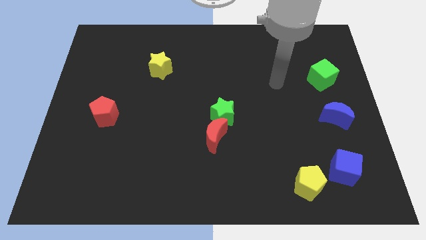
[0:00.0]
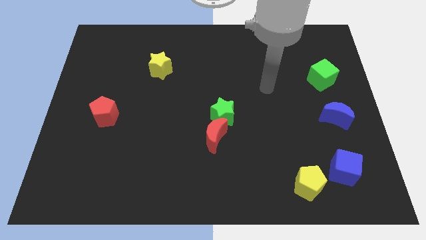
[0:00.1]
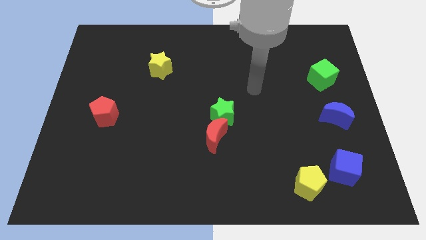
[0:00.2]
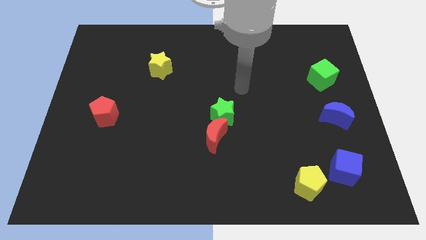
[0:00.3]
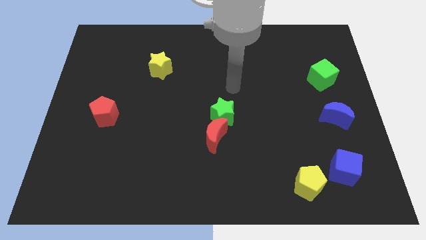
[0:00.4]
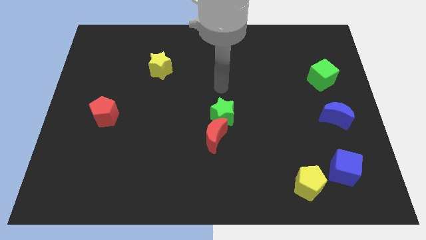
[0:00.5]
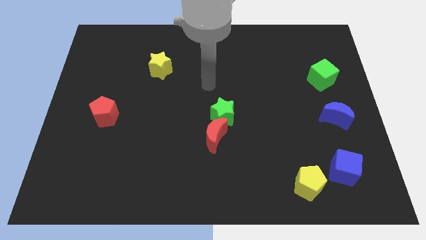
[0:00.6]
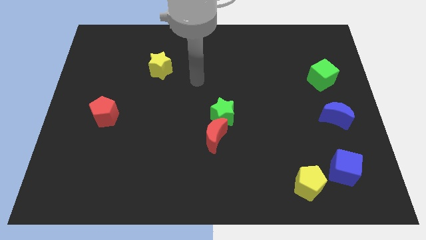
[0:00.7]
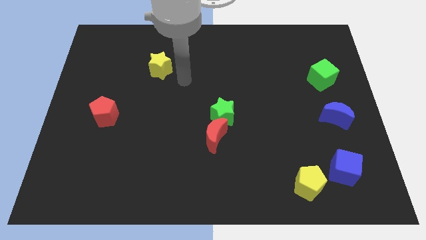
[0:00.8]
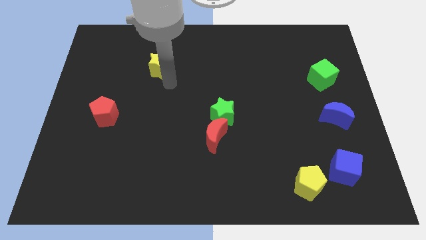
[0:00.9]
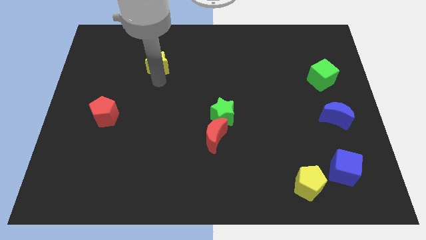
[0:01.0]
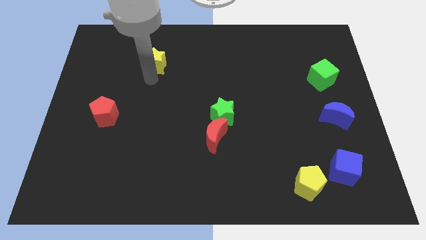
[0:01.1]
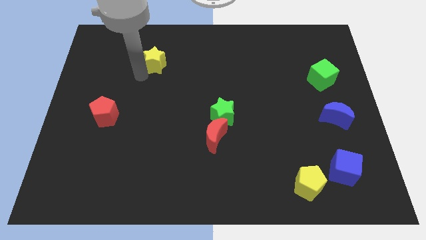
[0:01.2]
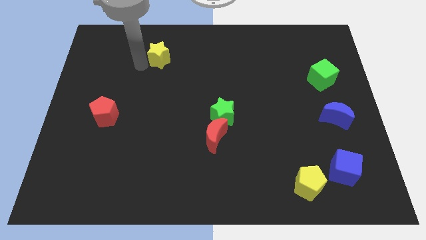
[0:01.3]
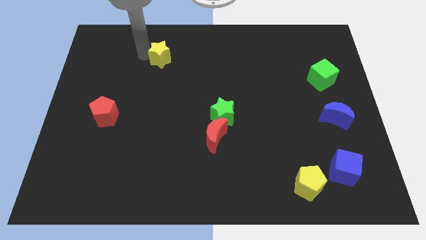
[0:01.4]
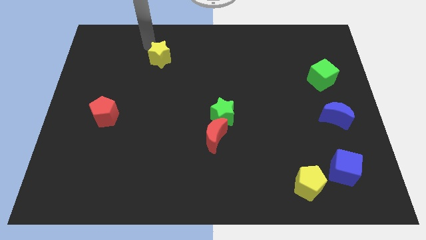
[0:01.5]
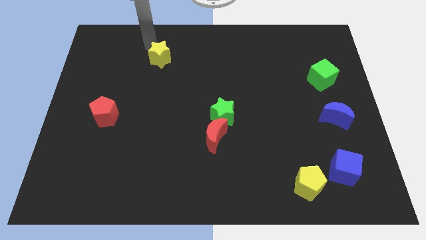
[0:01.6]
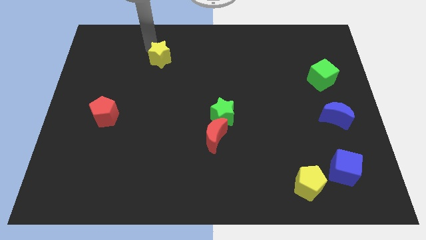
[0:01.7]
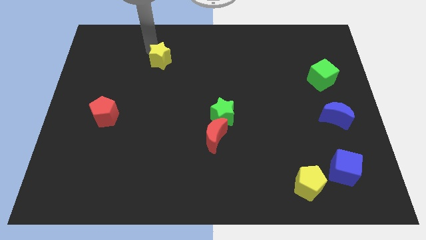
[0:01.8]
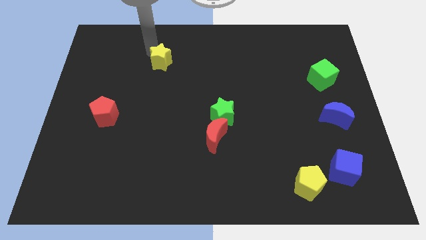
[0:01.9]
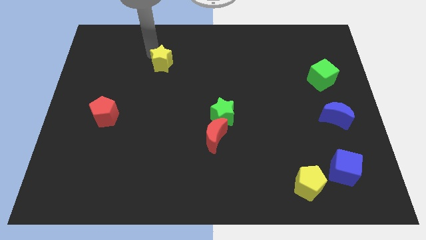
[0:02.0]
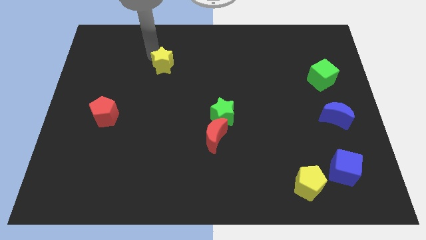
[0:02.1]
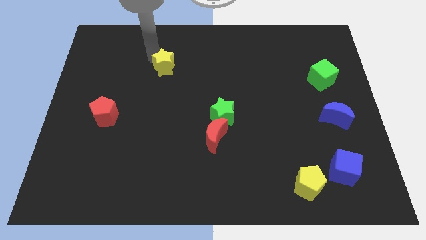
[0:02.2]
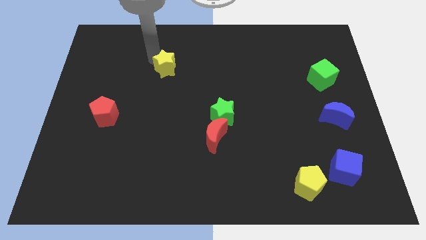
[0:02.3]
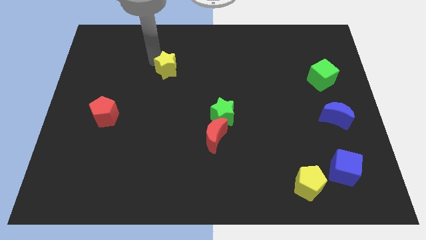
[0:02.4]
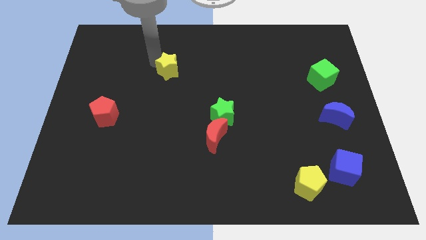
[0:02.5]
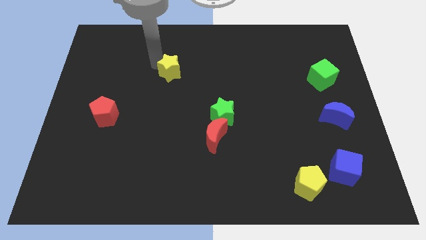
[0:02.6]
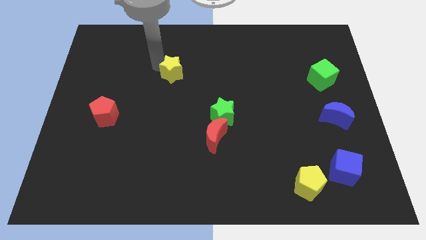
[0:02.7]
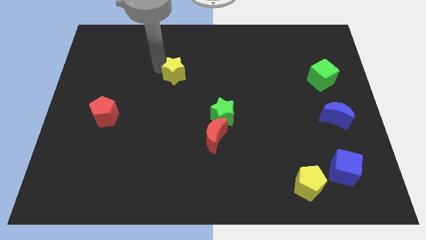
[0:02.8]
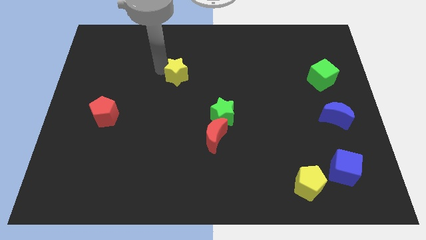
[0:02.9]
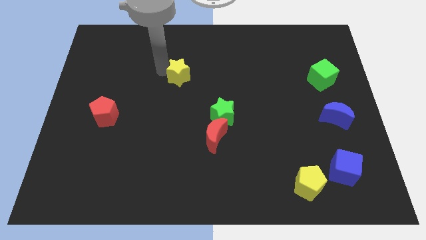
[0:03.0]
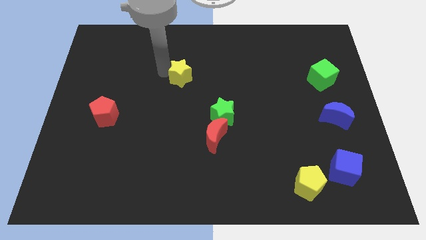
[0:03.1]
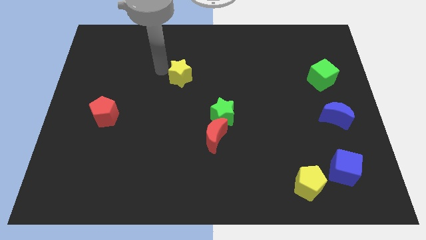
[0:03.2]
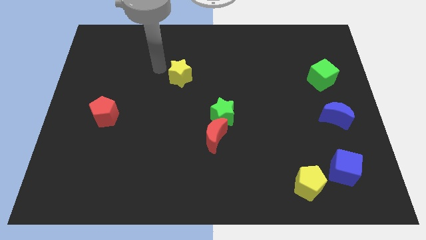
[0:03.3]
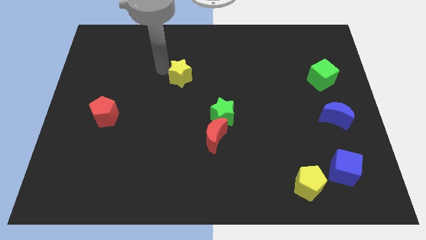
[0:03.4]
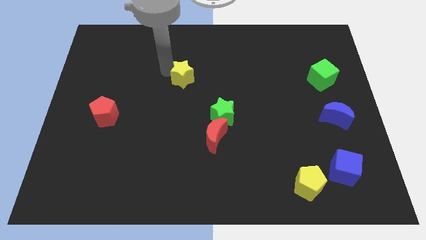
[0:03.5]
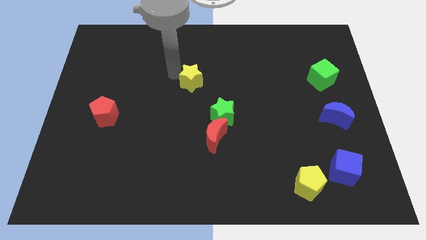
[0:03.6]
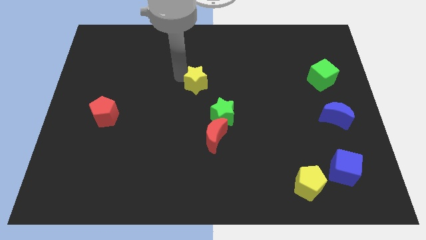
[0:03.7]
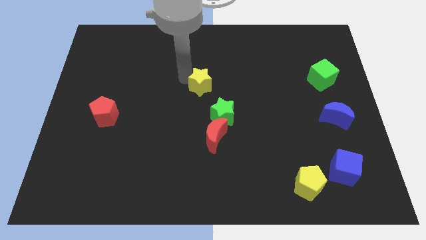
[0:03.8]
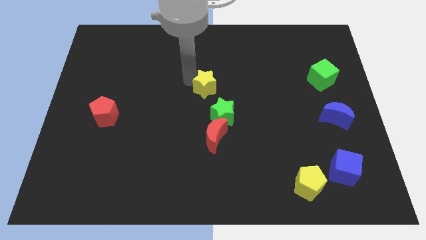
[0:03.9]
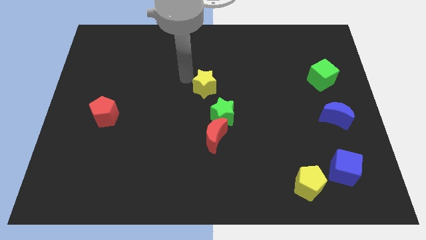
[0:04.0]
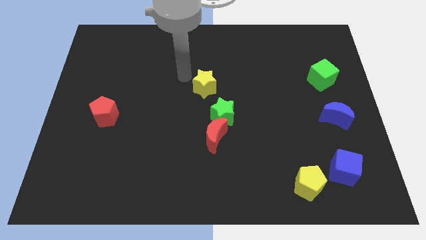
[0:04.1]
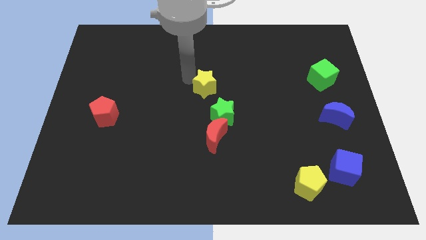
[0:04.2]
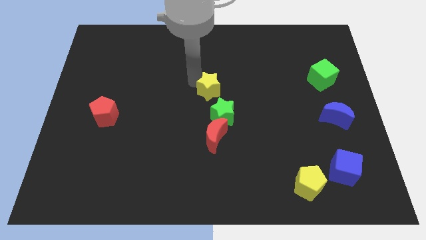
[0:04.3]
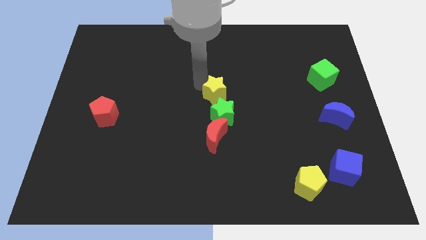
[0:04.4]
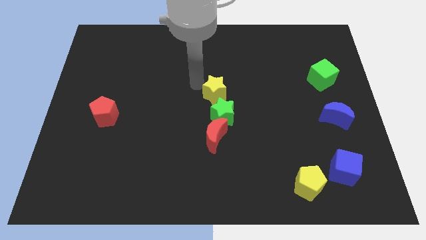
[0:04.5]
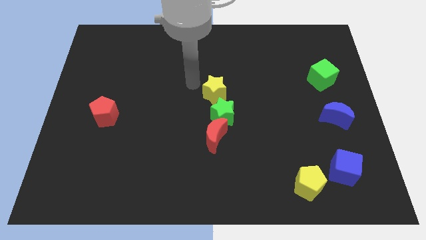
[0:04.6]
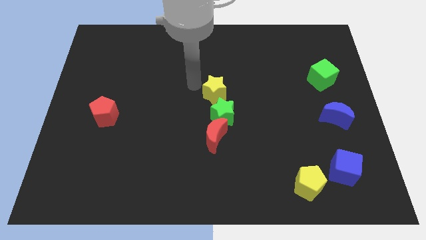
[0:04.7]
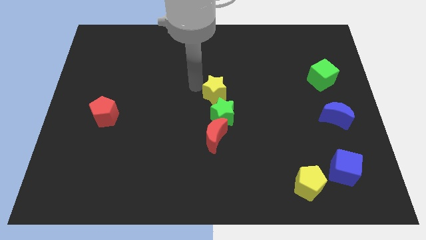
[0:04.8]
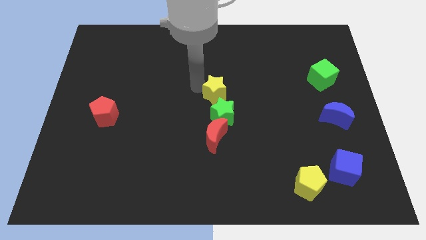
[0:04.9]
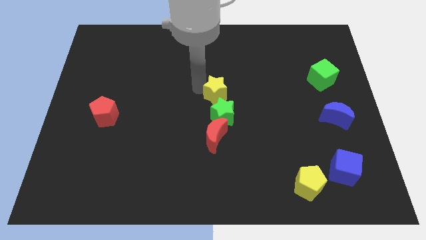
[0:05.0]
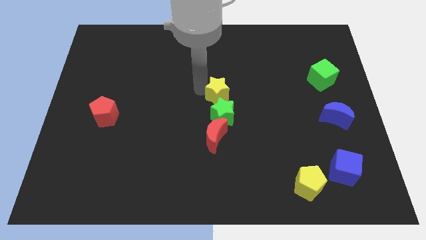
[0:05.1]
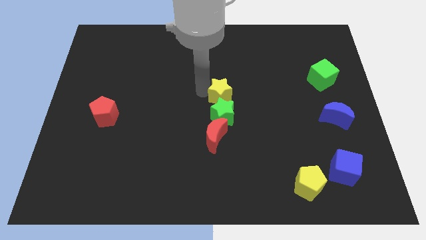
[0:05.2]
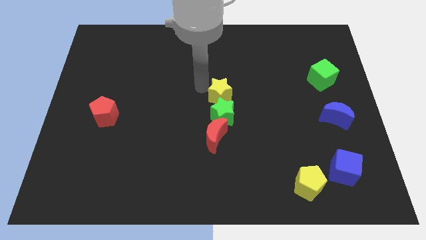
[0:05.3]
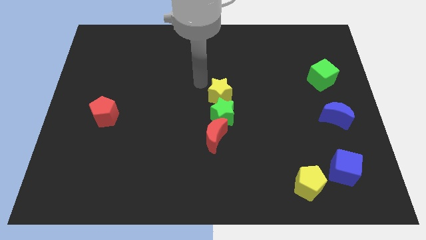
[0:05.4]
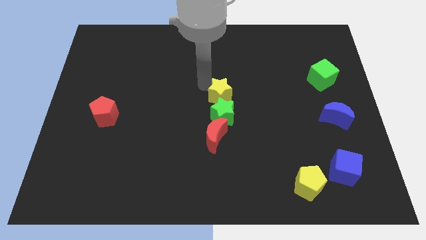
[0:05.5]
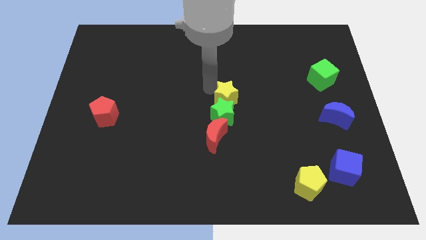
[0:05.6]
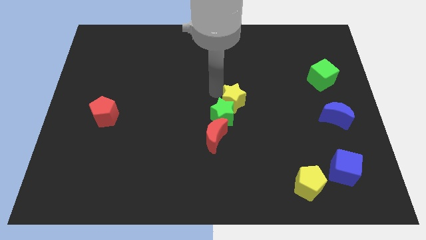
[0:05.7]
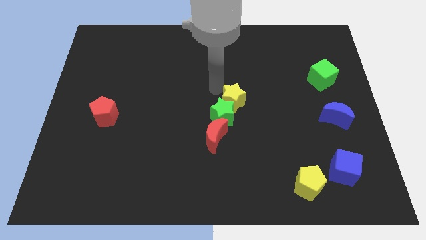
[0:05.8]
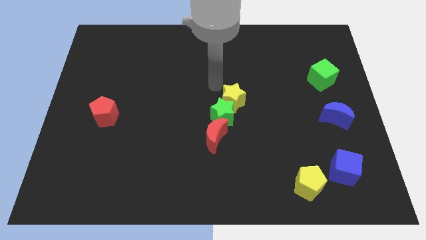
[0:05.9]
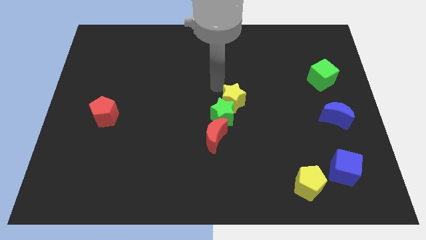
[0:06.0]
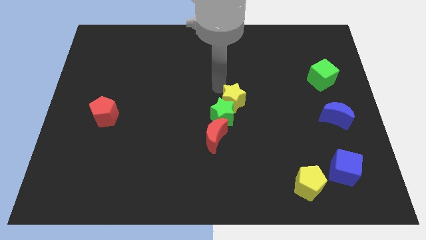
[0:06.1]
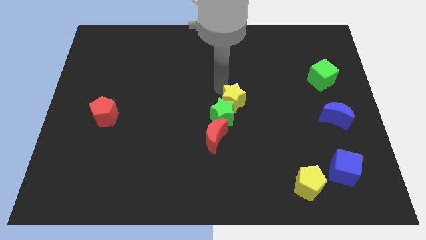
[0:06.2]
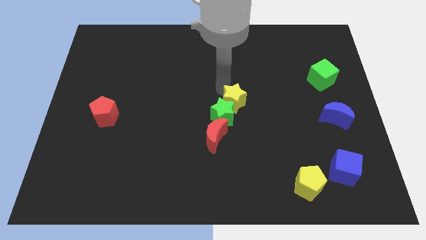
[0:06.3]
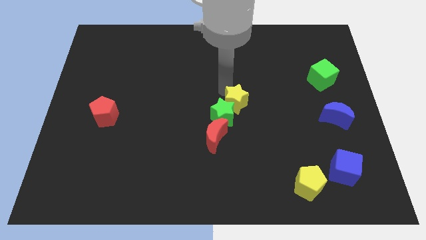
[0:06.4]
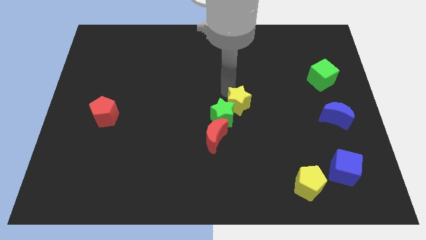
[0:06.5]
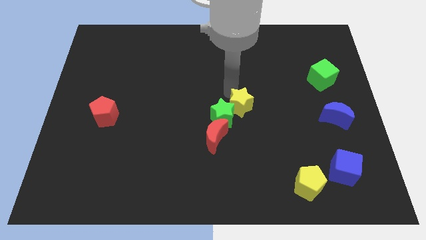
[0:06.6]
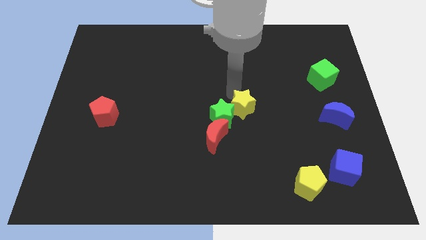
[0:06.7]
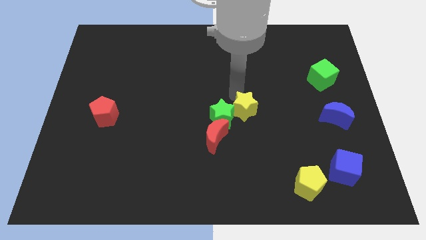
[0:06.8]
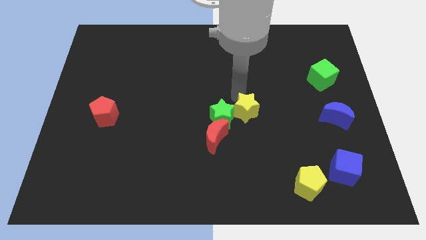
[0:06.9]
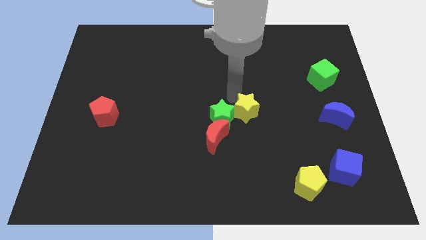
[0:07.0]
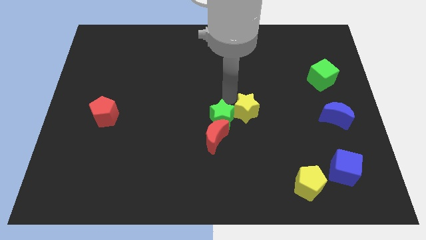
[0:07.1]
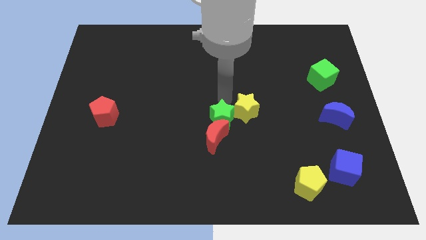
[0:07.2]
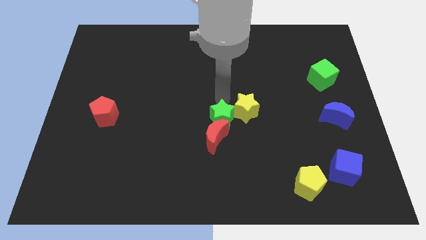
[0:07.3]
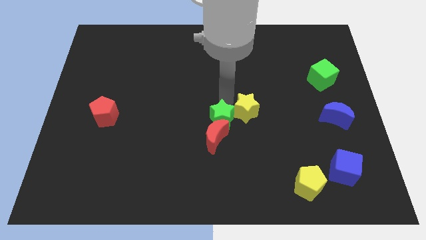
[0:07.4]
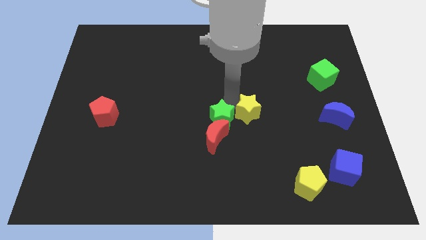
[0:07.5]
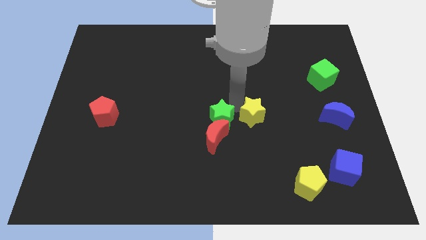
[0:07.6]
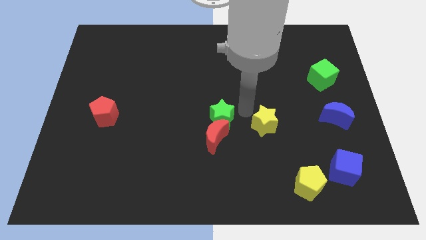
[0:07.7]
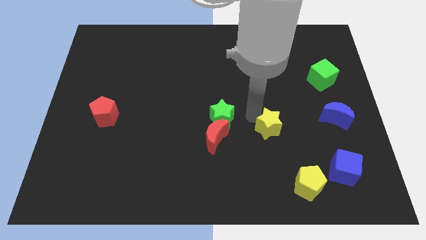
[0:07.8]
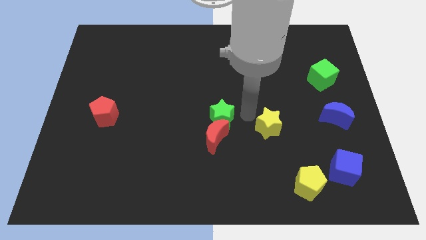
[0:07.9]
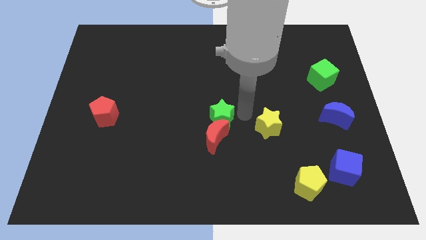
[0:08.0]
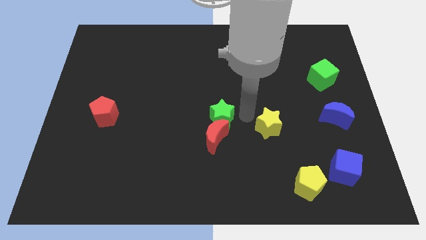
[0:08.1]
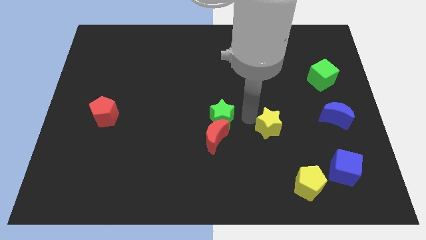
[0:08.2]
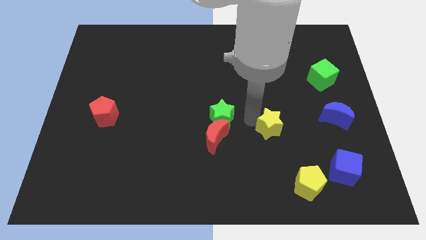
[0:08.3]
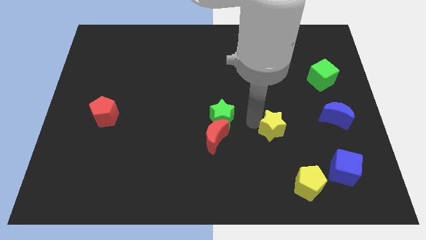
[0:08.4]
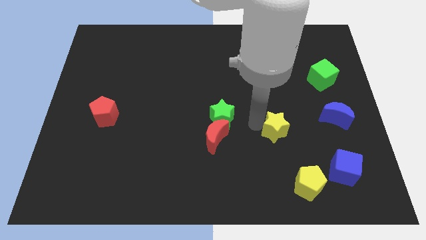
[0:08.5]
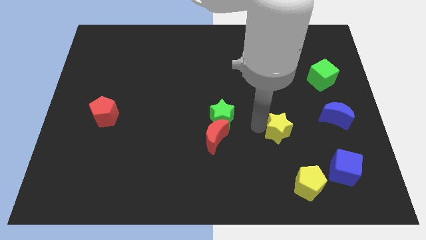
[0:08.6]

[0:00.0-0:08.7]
push the yellow star above the yellow pentagon
